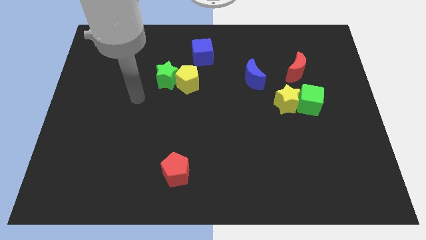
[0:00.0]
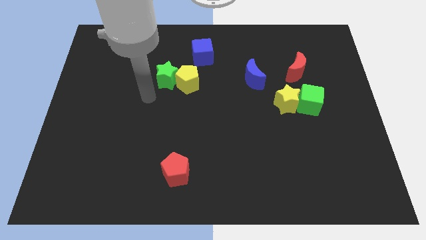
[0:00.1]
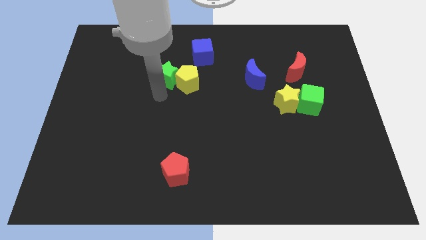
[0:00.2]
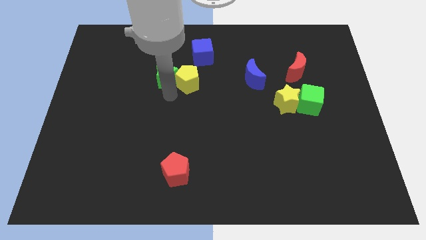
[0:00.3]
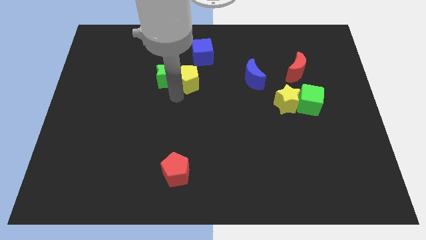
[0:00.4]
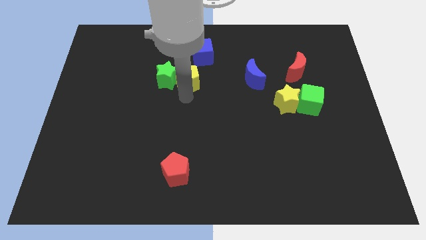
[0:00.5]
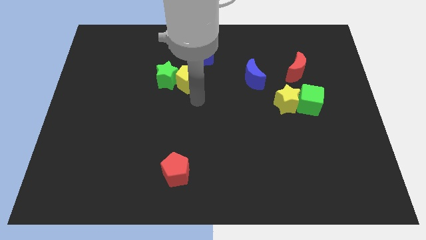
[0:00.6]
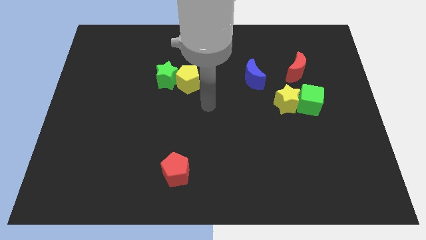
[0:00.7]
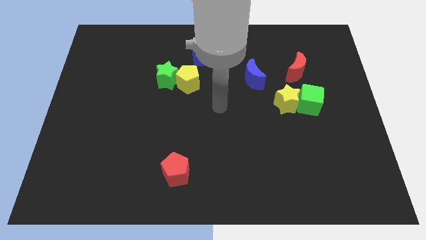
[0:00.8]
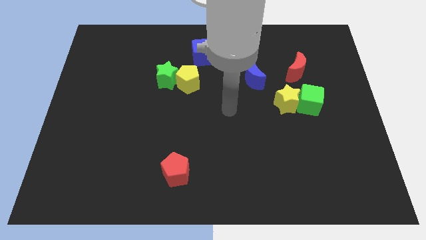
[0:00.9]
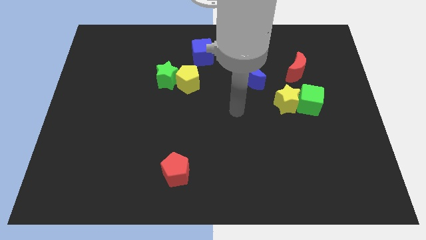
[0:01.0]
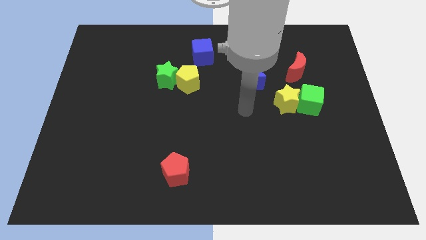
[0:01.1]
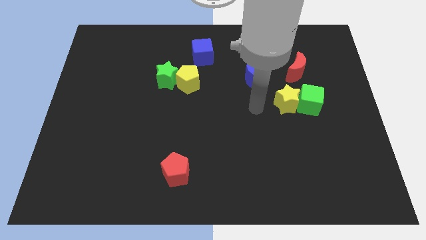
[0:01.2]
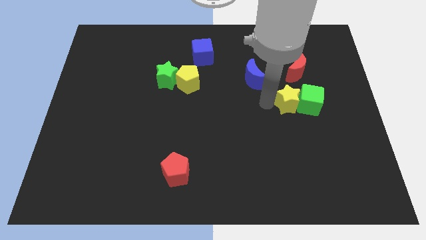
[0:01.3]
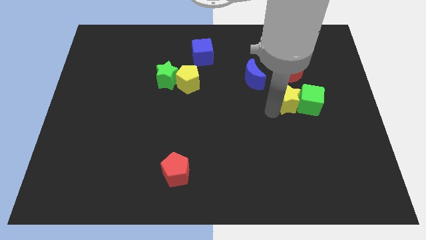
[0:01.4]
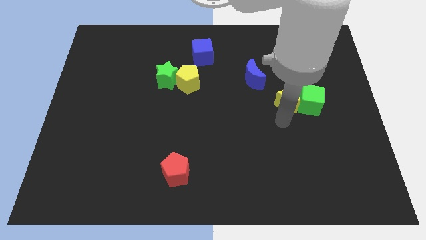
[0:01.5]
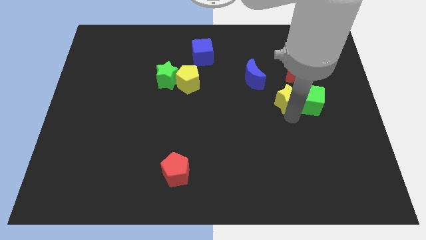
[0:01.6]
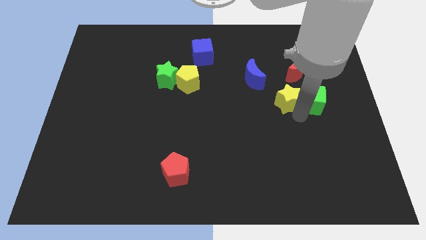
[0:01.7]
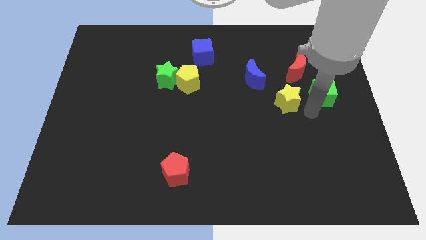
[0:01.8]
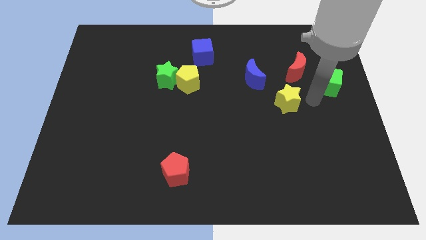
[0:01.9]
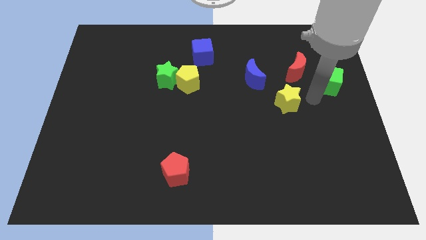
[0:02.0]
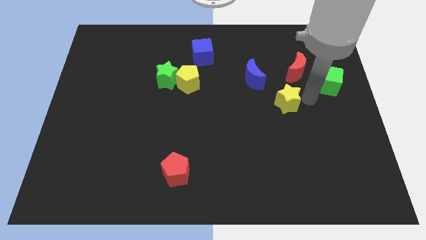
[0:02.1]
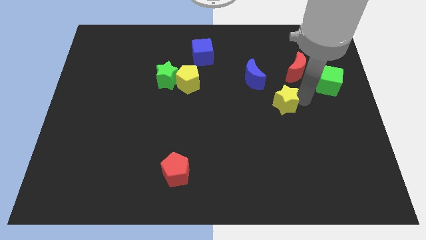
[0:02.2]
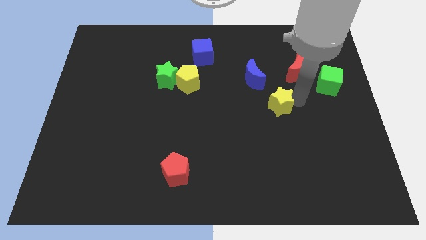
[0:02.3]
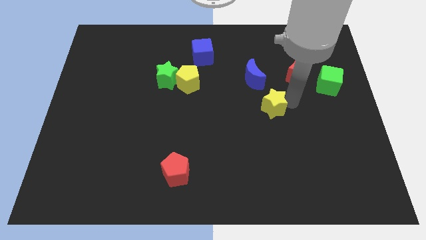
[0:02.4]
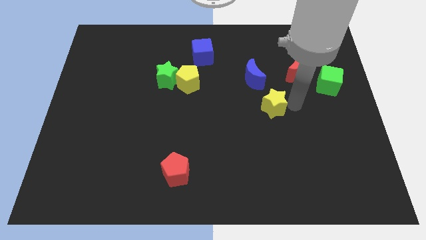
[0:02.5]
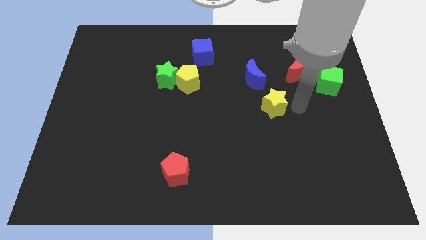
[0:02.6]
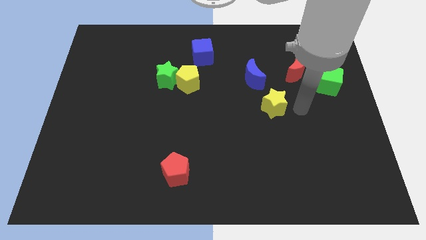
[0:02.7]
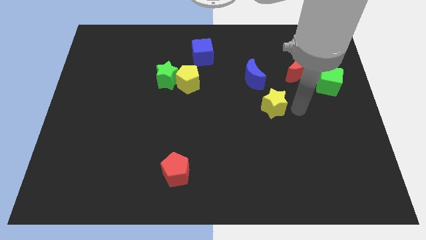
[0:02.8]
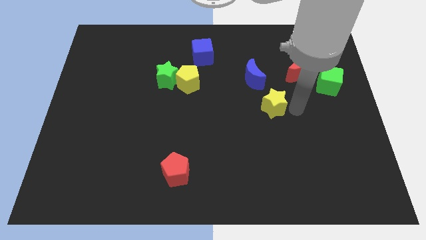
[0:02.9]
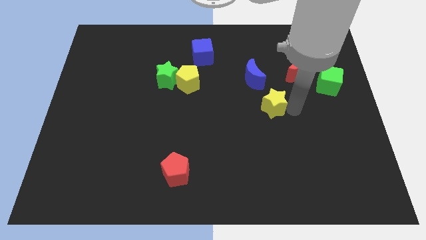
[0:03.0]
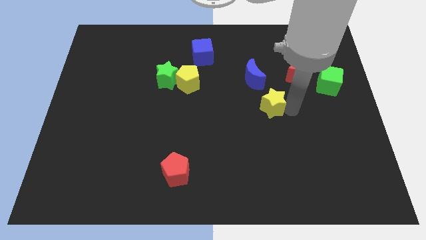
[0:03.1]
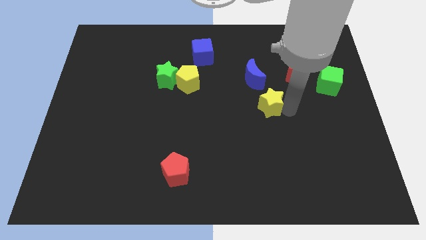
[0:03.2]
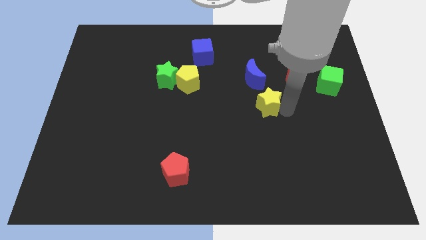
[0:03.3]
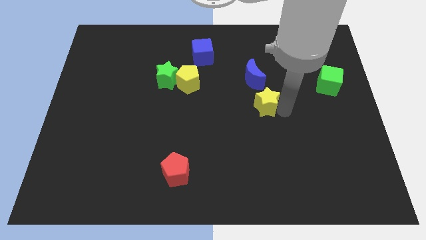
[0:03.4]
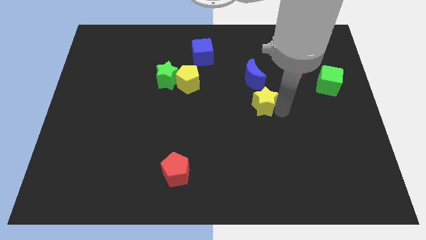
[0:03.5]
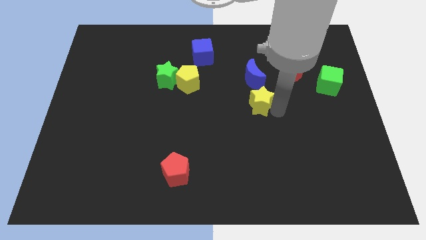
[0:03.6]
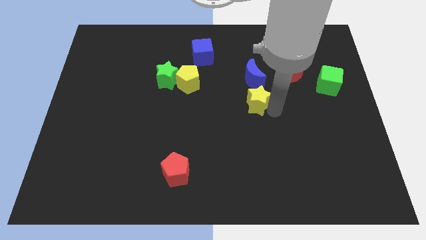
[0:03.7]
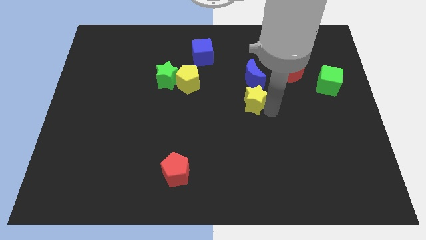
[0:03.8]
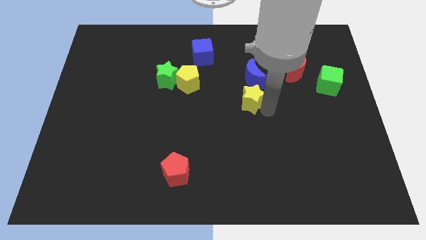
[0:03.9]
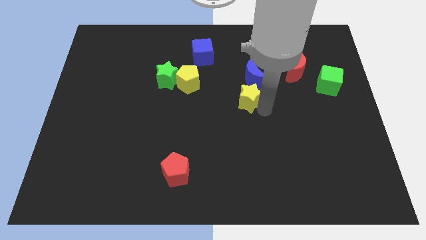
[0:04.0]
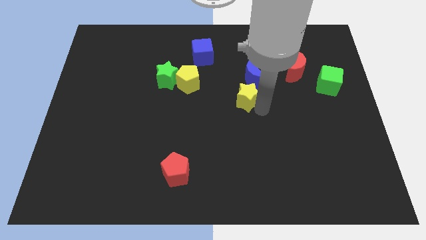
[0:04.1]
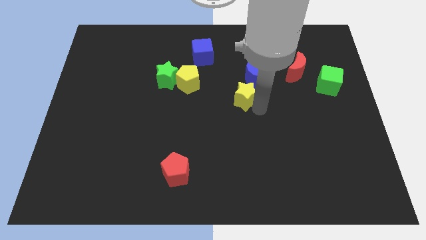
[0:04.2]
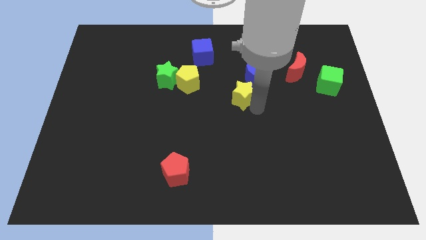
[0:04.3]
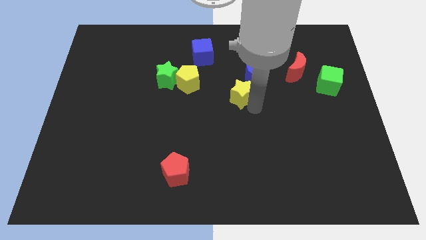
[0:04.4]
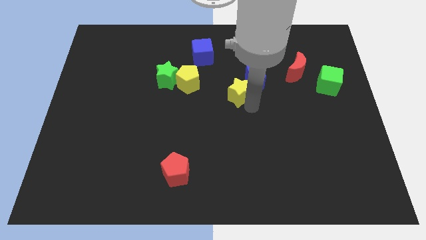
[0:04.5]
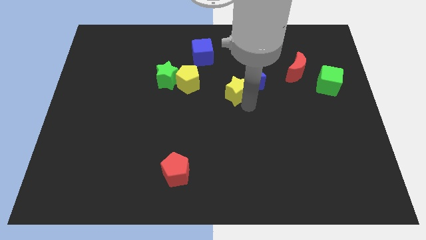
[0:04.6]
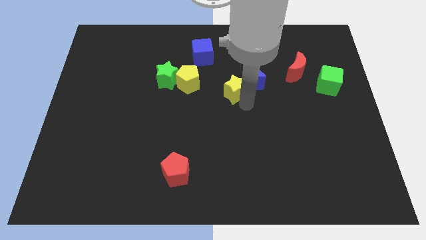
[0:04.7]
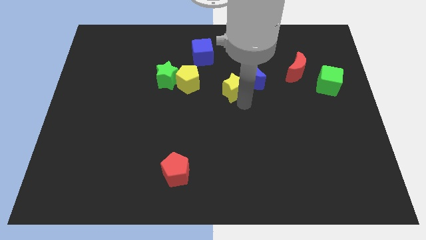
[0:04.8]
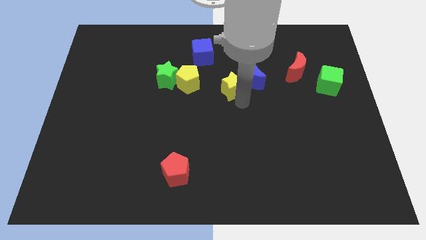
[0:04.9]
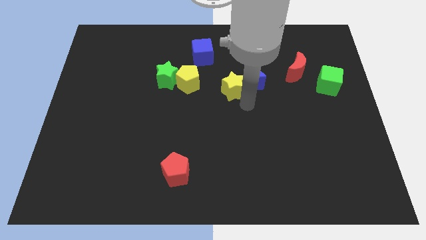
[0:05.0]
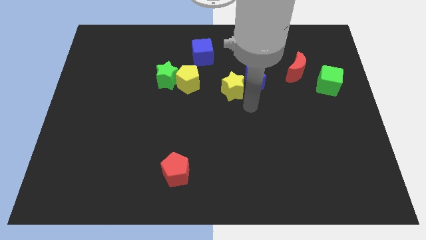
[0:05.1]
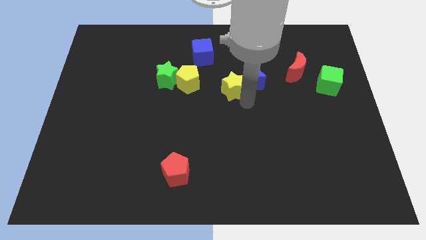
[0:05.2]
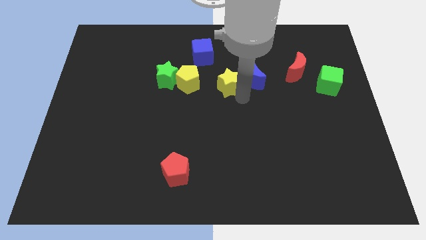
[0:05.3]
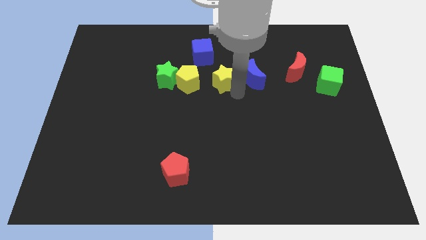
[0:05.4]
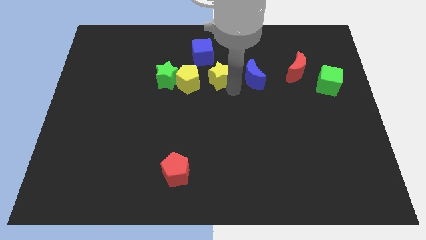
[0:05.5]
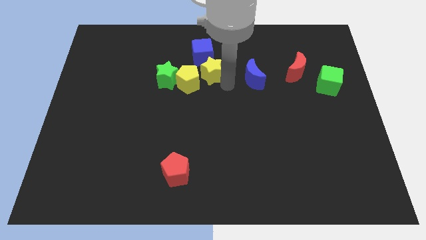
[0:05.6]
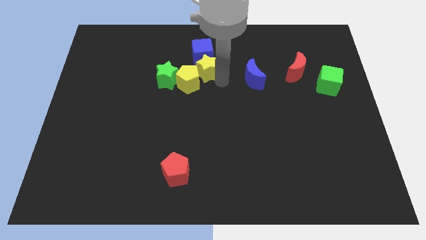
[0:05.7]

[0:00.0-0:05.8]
push the yellow star to the blue cube

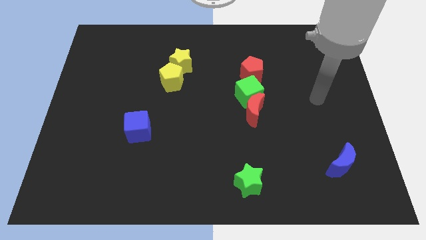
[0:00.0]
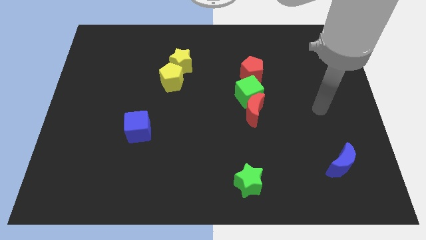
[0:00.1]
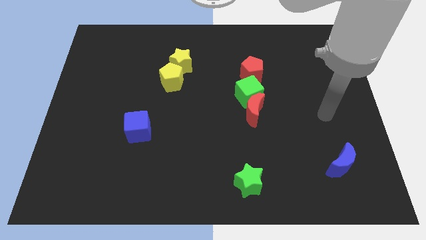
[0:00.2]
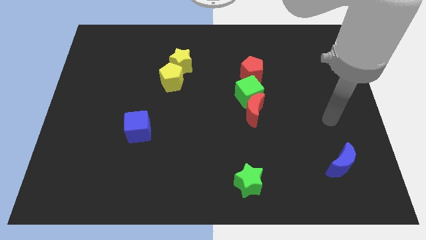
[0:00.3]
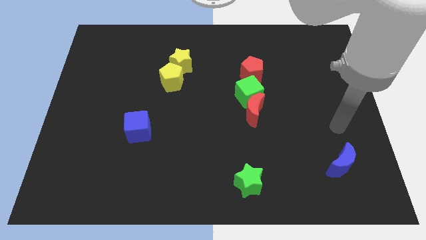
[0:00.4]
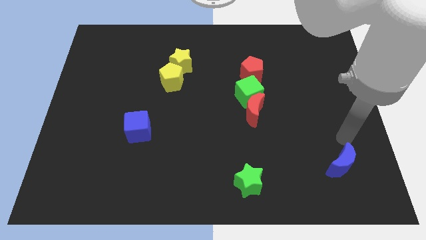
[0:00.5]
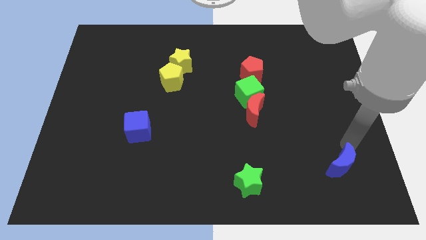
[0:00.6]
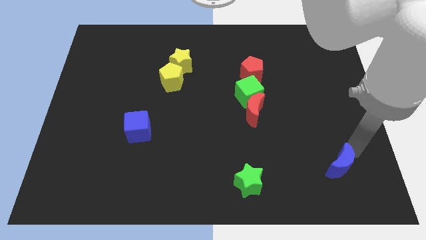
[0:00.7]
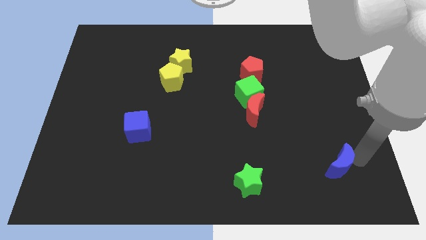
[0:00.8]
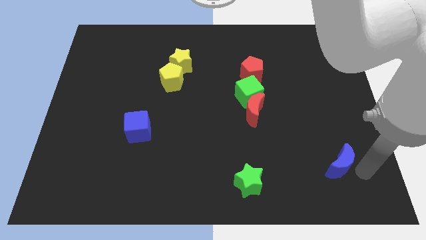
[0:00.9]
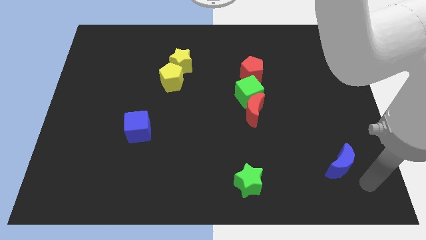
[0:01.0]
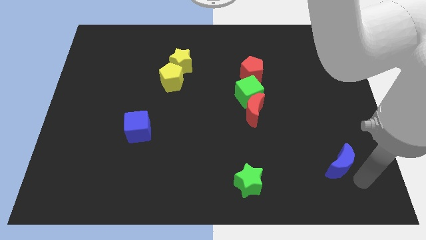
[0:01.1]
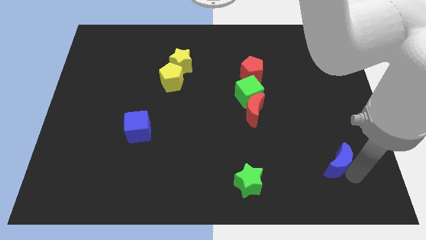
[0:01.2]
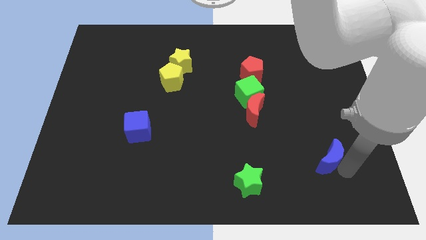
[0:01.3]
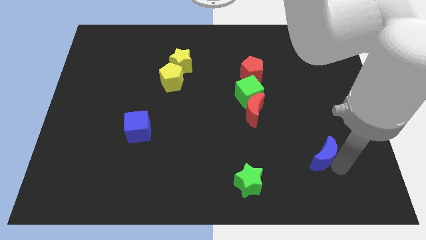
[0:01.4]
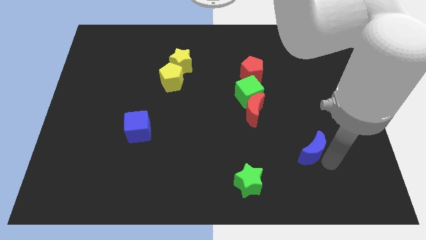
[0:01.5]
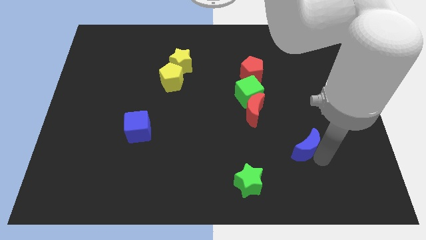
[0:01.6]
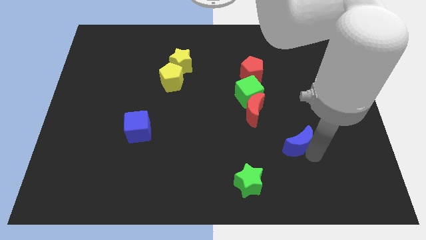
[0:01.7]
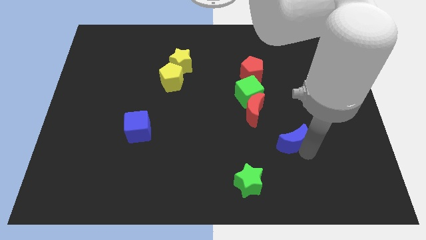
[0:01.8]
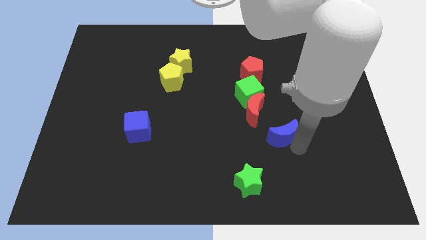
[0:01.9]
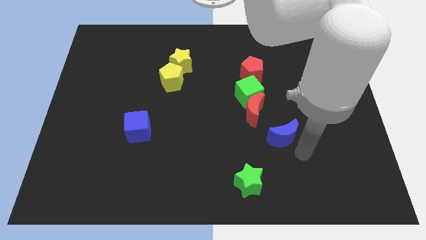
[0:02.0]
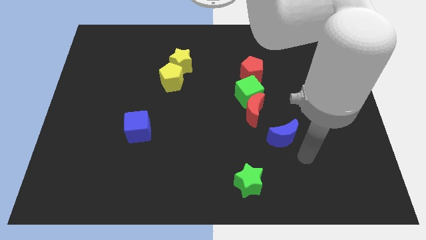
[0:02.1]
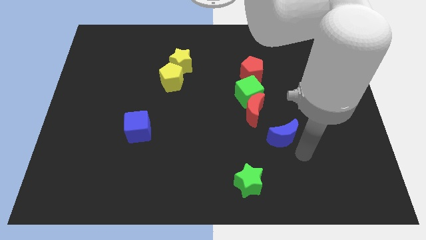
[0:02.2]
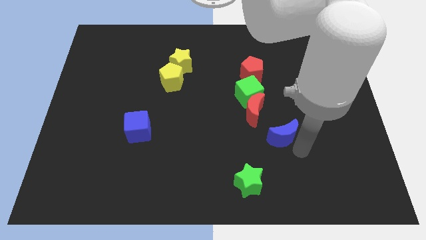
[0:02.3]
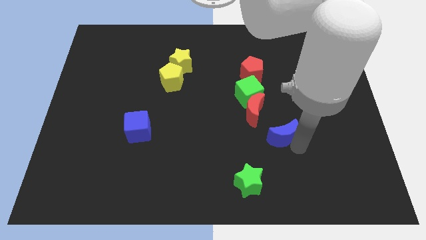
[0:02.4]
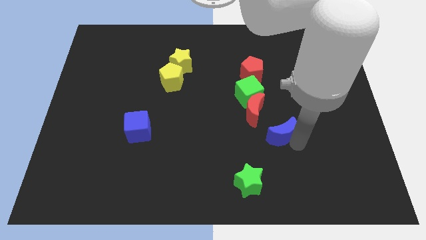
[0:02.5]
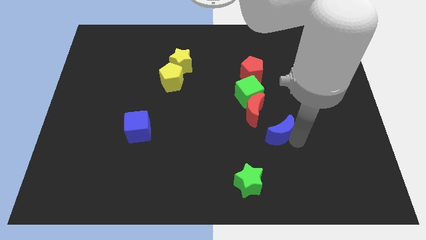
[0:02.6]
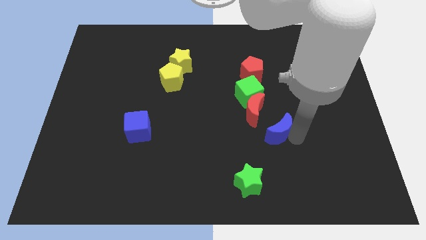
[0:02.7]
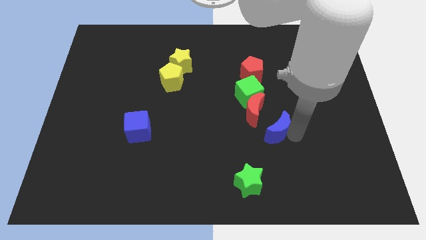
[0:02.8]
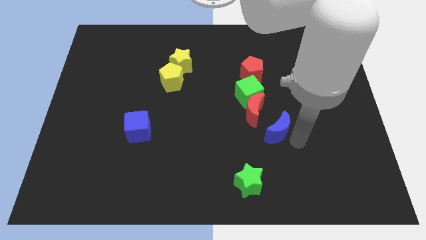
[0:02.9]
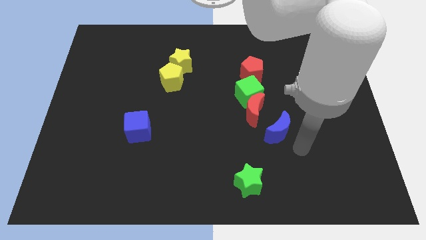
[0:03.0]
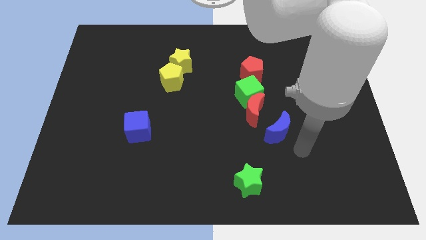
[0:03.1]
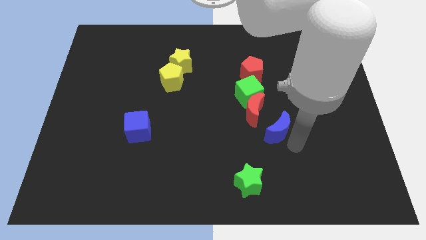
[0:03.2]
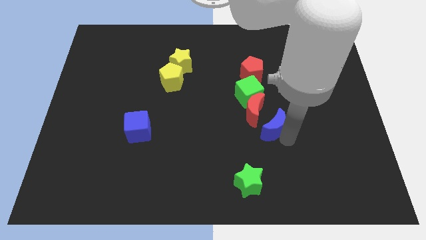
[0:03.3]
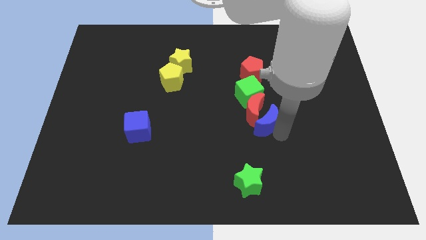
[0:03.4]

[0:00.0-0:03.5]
push the blue moon next to the red moon
